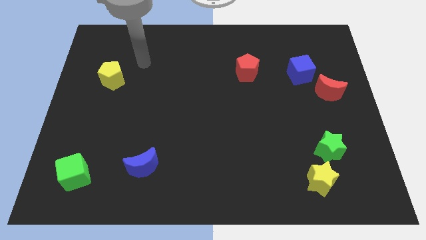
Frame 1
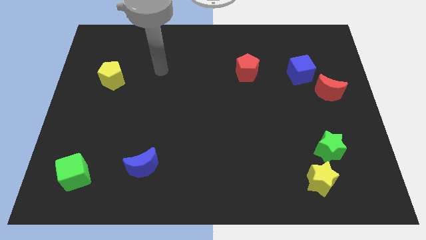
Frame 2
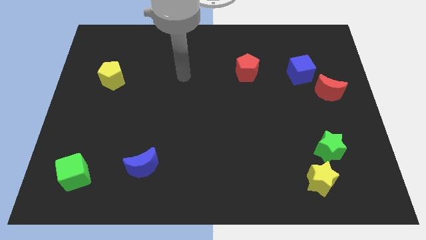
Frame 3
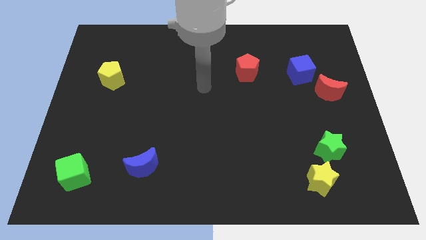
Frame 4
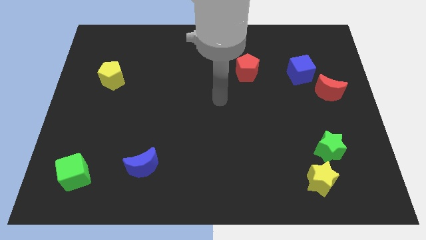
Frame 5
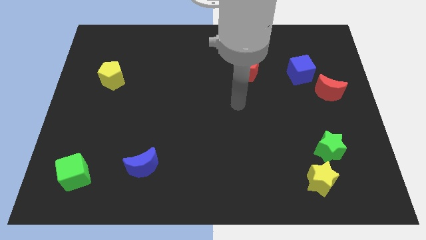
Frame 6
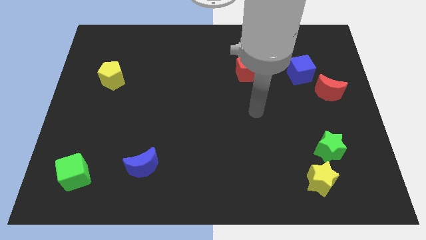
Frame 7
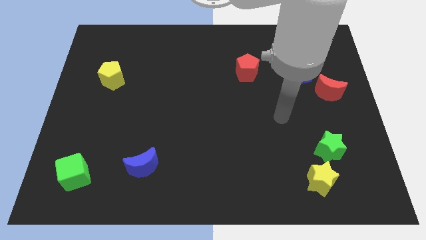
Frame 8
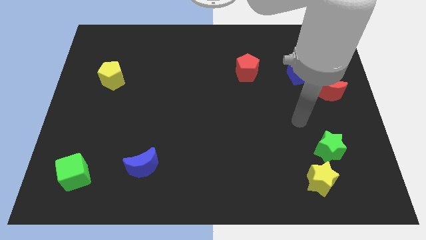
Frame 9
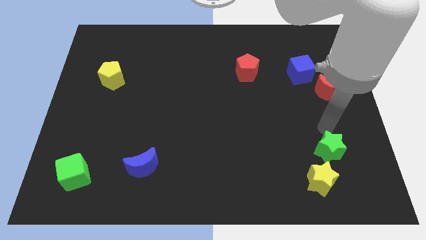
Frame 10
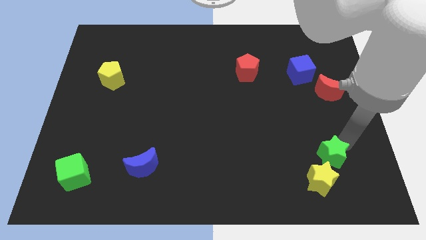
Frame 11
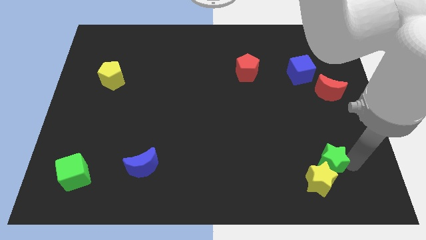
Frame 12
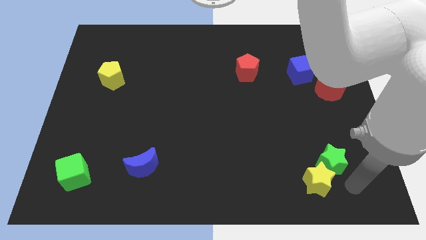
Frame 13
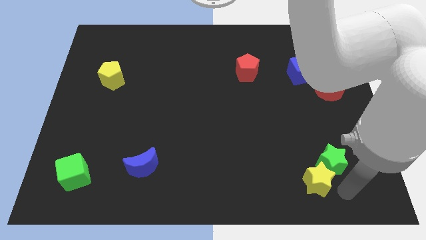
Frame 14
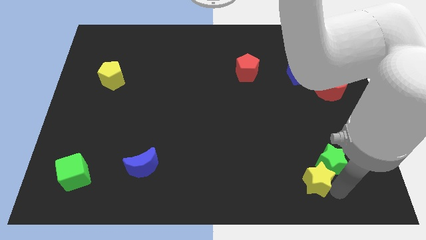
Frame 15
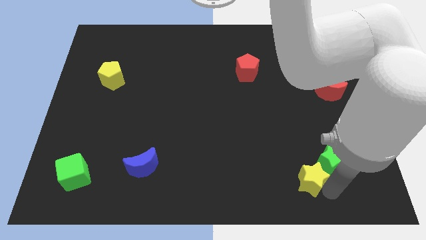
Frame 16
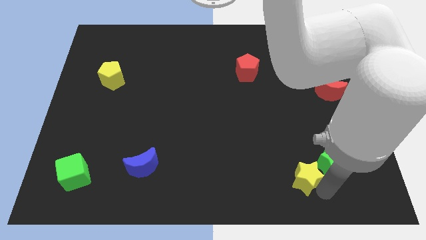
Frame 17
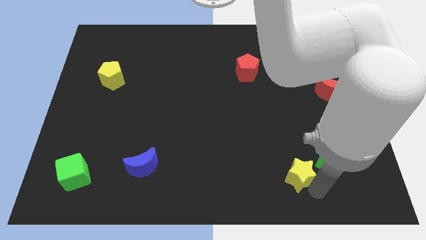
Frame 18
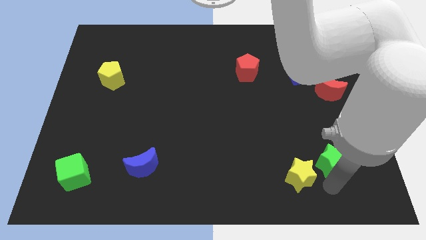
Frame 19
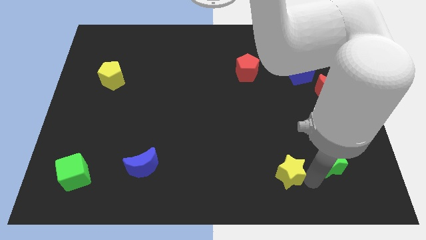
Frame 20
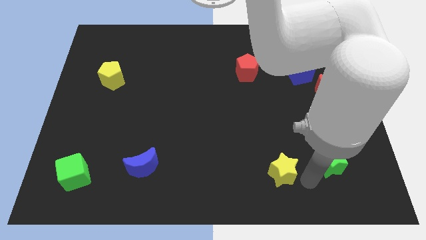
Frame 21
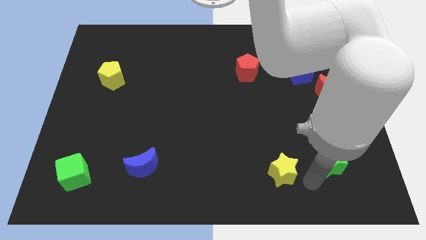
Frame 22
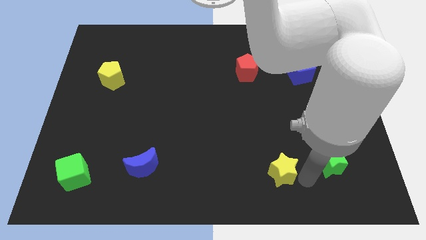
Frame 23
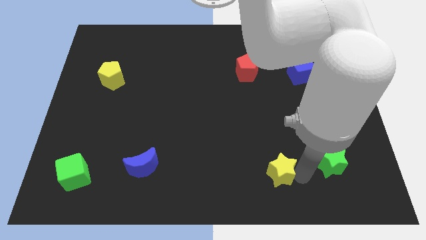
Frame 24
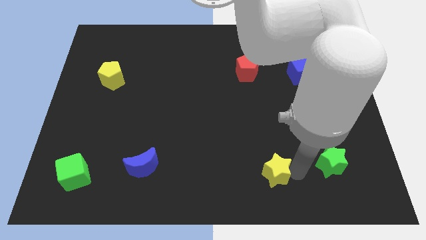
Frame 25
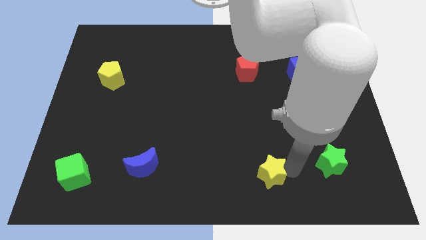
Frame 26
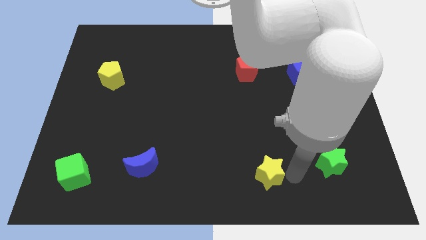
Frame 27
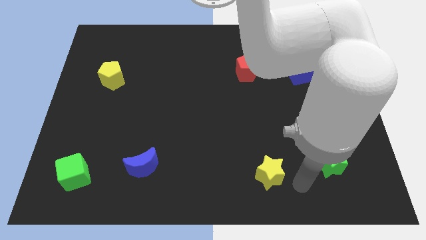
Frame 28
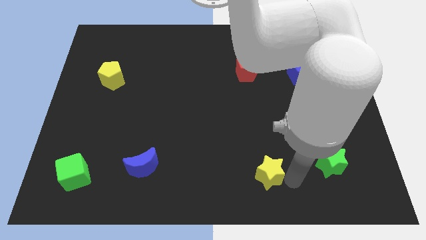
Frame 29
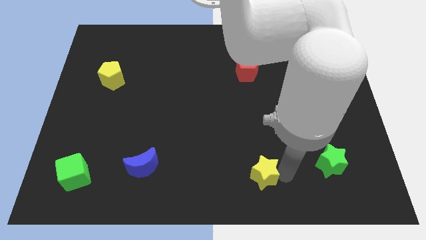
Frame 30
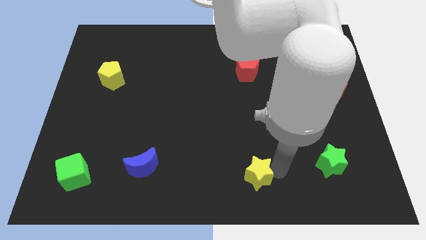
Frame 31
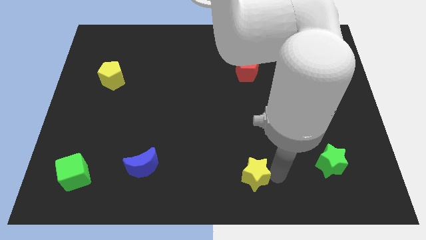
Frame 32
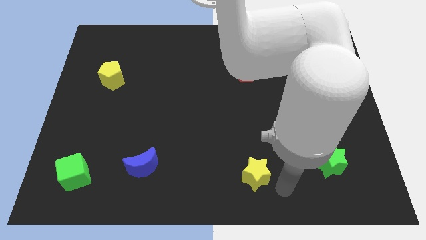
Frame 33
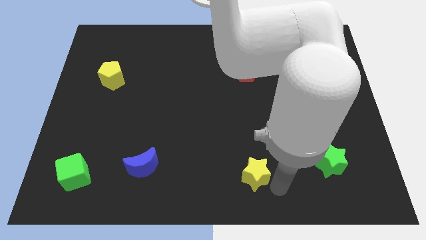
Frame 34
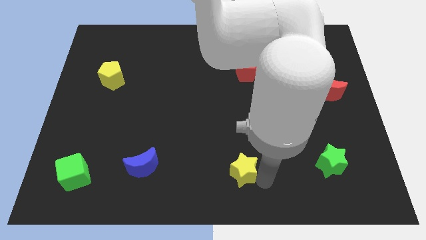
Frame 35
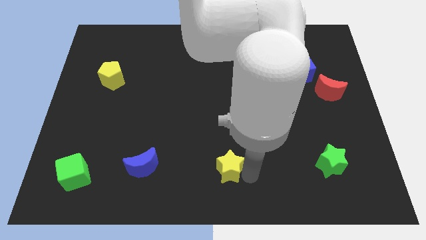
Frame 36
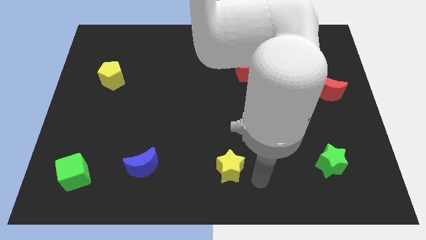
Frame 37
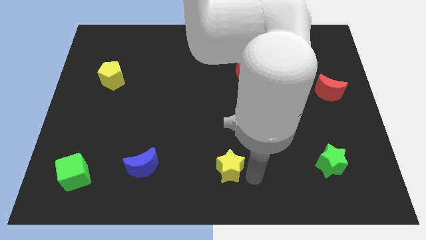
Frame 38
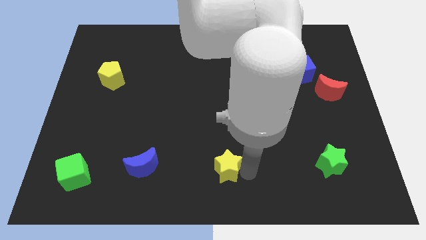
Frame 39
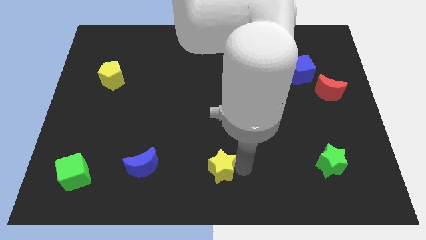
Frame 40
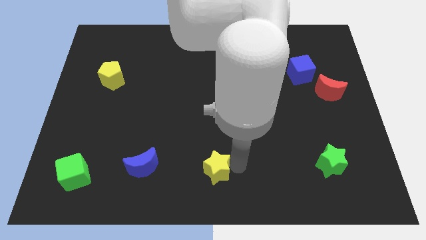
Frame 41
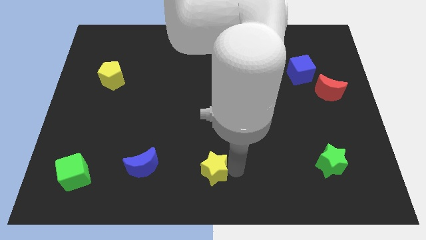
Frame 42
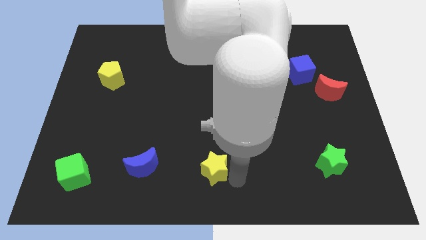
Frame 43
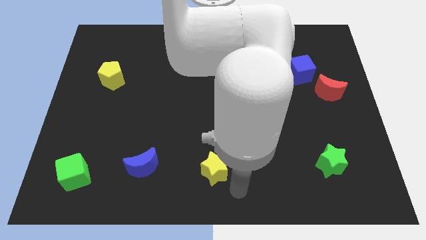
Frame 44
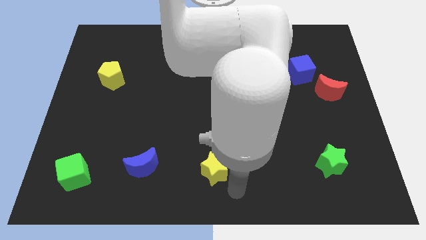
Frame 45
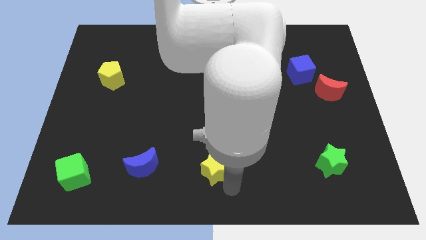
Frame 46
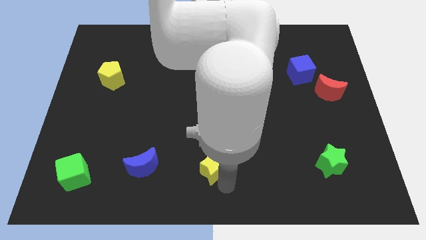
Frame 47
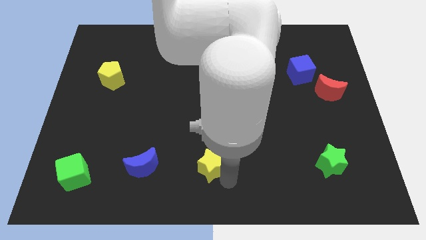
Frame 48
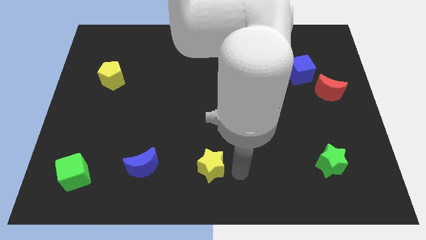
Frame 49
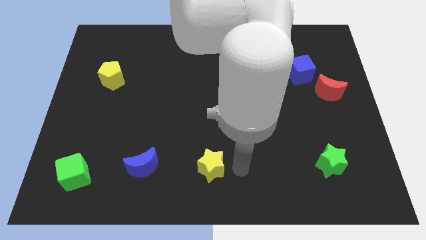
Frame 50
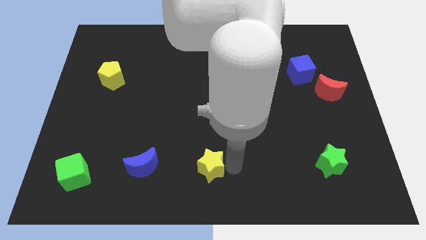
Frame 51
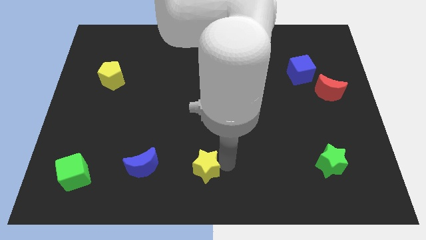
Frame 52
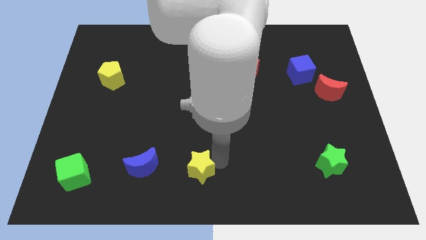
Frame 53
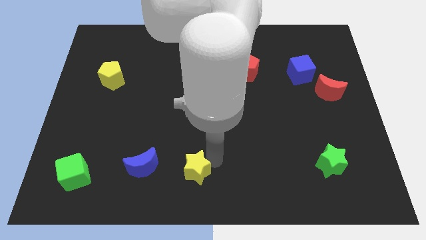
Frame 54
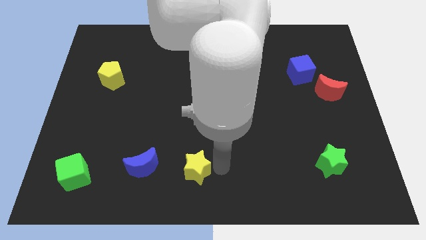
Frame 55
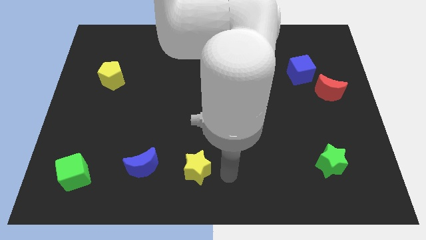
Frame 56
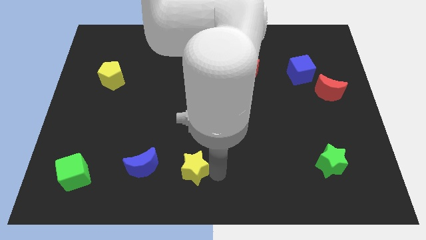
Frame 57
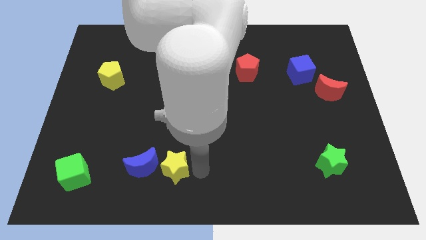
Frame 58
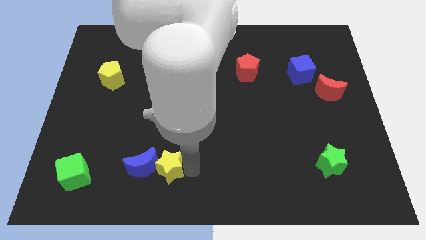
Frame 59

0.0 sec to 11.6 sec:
push the yellow star next to the blue moon

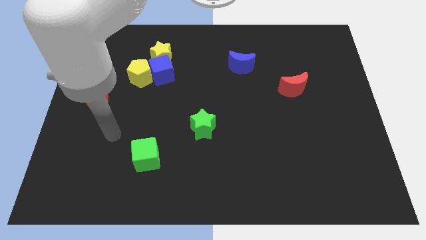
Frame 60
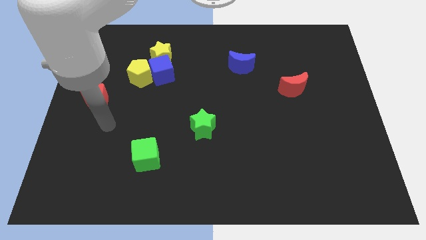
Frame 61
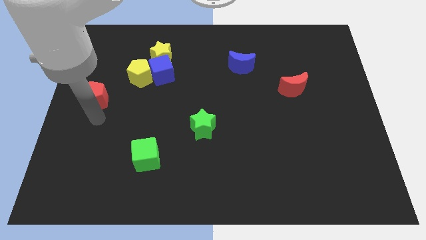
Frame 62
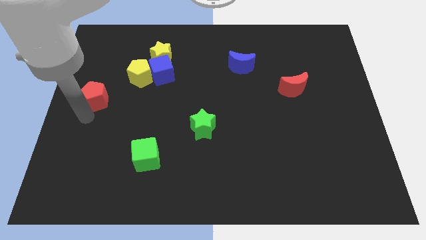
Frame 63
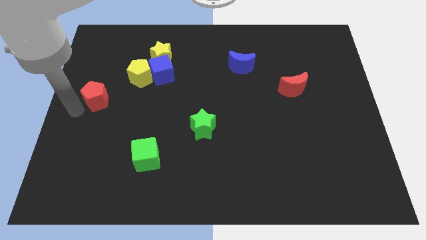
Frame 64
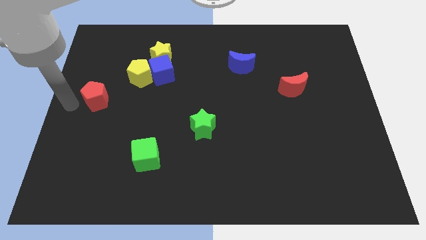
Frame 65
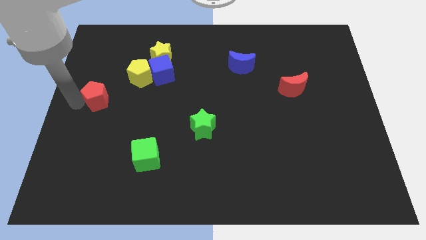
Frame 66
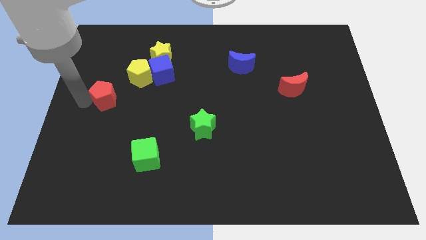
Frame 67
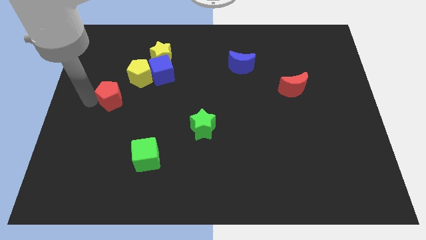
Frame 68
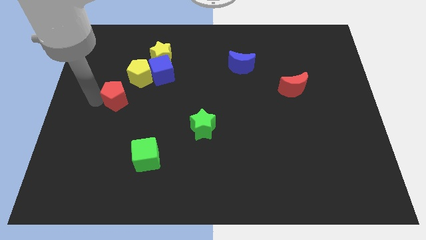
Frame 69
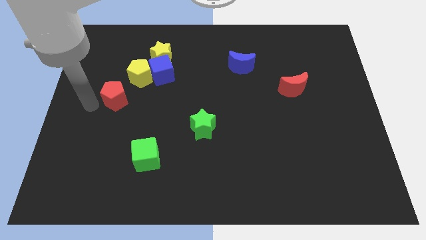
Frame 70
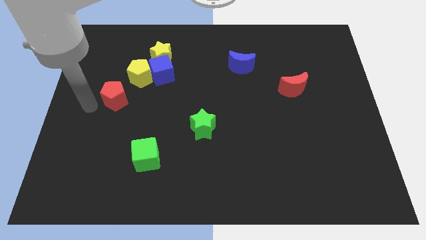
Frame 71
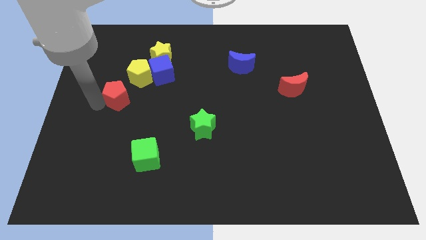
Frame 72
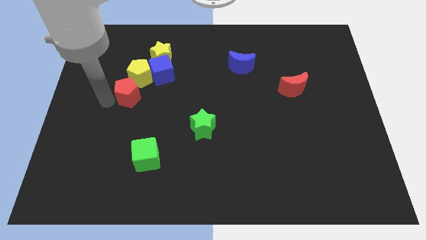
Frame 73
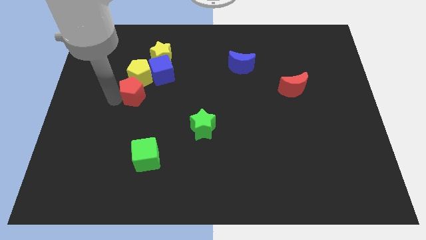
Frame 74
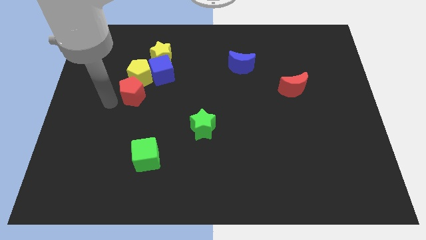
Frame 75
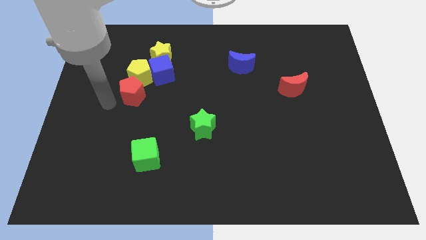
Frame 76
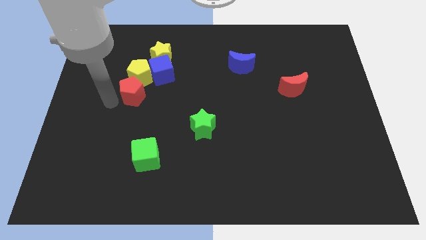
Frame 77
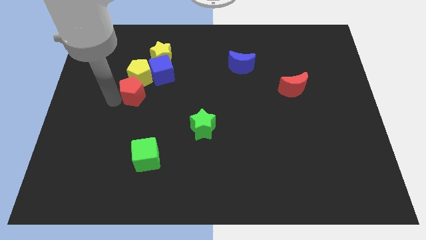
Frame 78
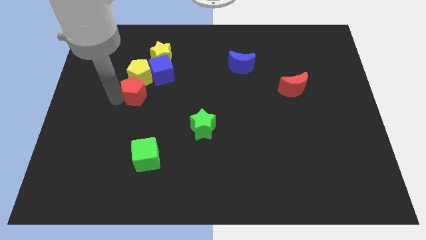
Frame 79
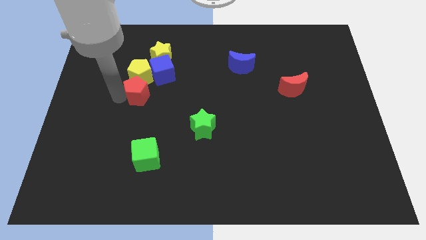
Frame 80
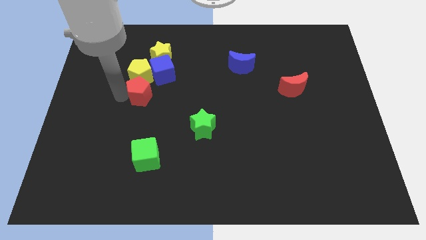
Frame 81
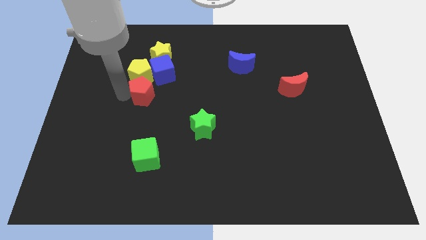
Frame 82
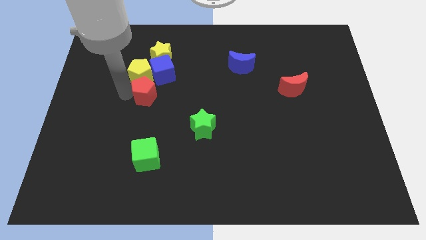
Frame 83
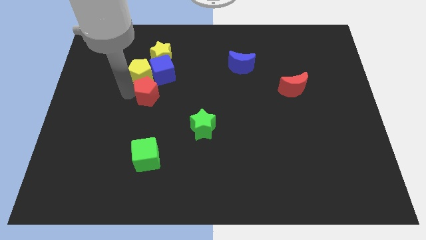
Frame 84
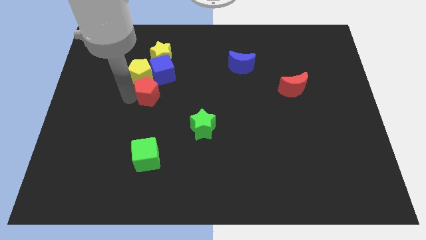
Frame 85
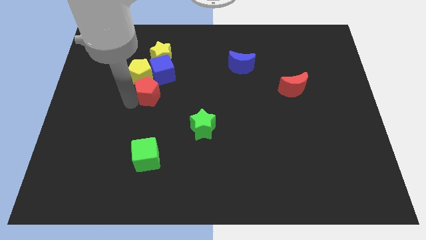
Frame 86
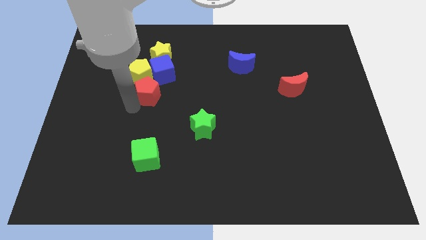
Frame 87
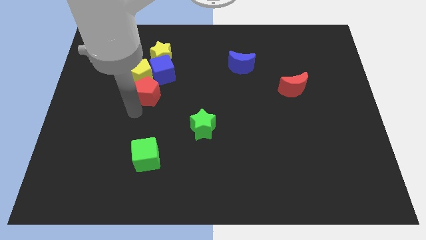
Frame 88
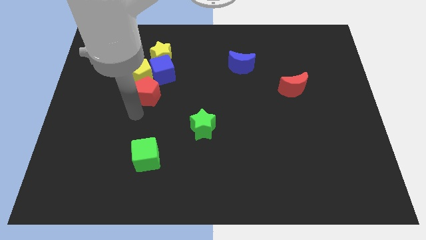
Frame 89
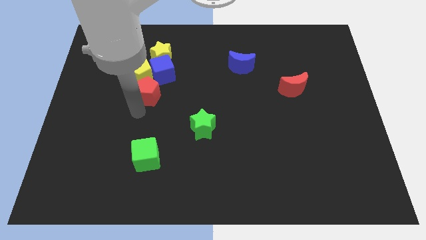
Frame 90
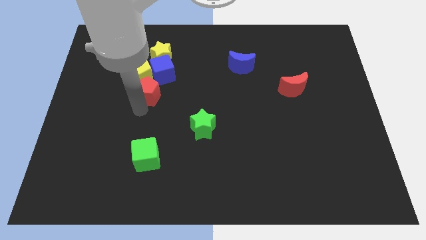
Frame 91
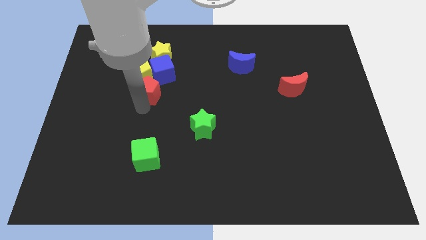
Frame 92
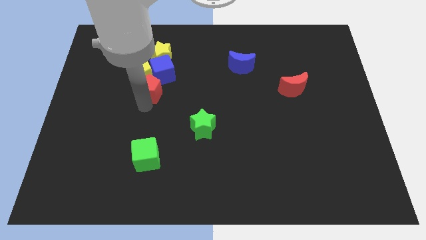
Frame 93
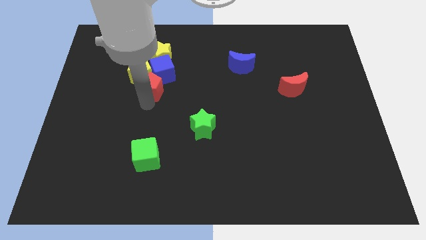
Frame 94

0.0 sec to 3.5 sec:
push the red pentagon towards the blue cube
